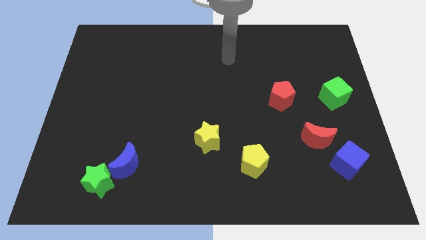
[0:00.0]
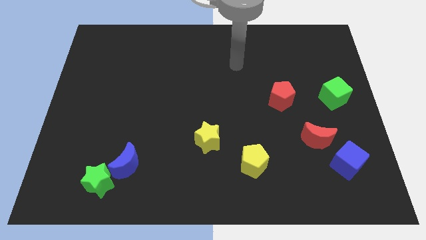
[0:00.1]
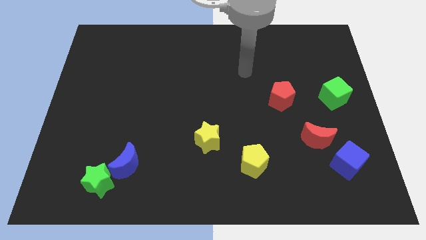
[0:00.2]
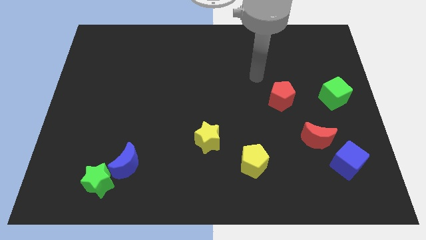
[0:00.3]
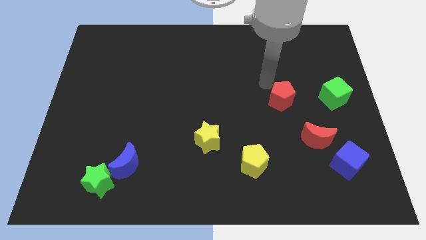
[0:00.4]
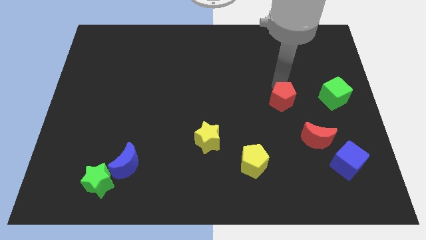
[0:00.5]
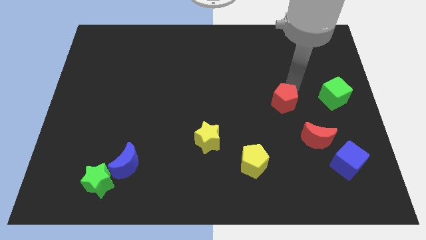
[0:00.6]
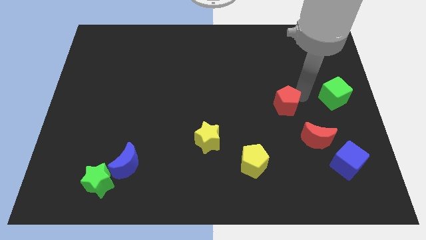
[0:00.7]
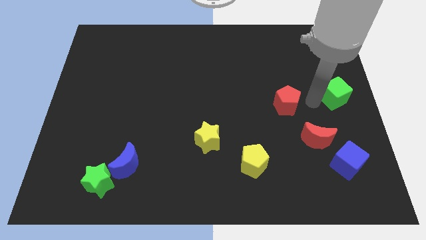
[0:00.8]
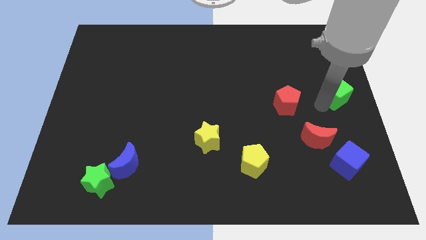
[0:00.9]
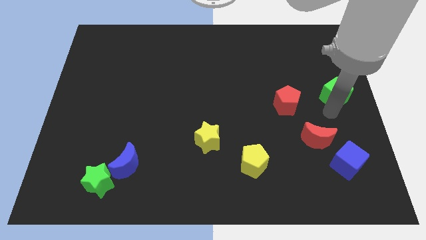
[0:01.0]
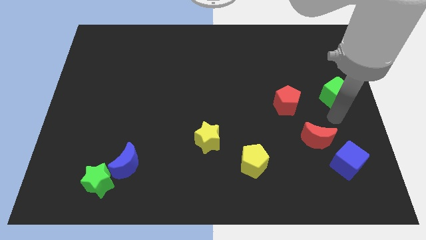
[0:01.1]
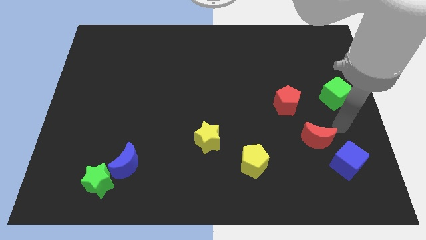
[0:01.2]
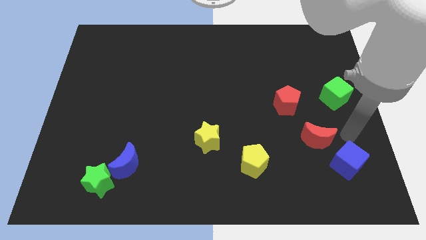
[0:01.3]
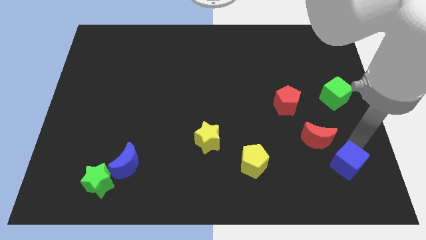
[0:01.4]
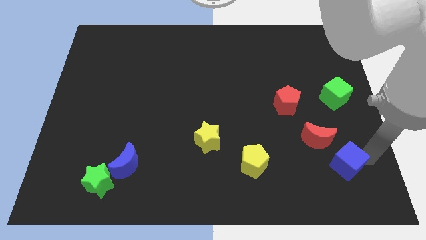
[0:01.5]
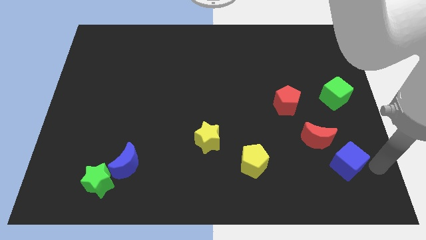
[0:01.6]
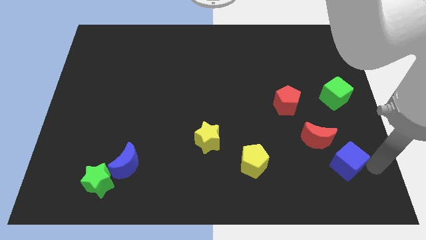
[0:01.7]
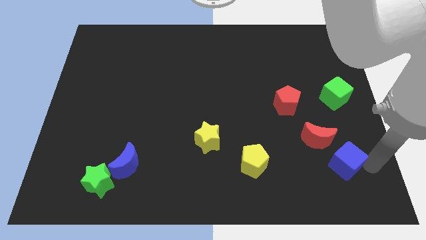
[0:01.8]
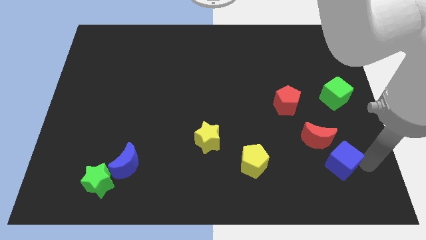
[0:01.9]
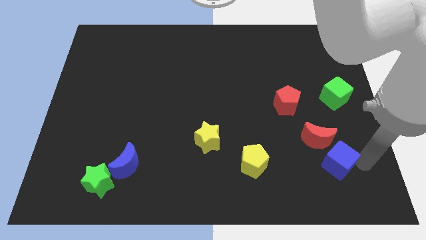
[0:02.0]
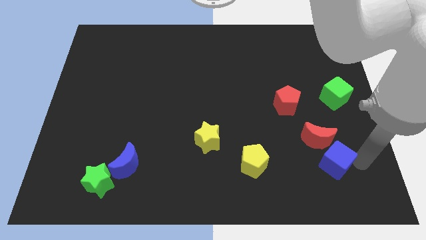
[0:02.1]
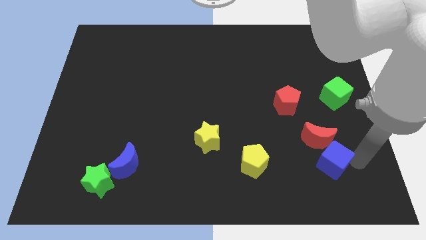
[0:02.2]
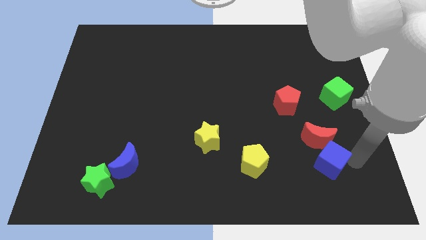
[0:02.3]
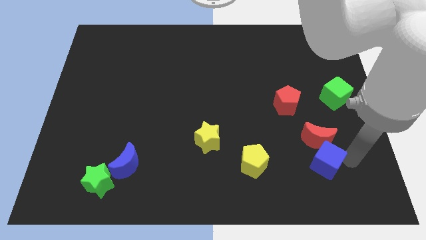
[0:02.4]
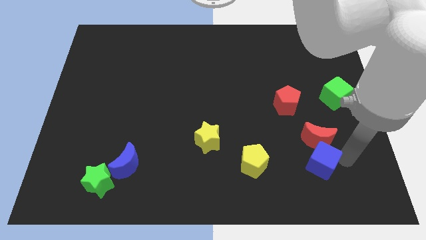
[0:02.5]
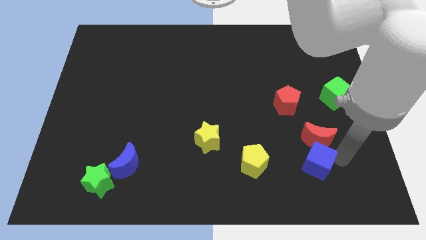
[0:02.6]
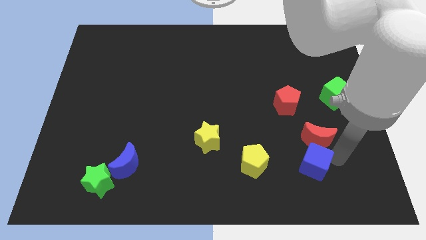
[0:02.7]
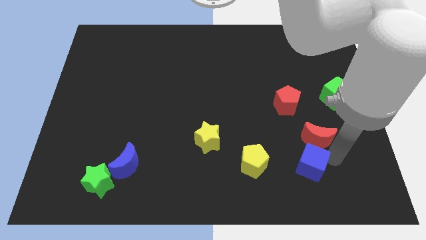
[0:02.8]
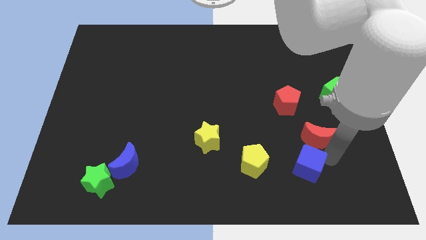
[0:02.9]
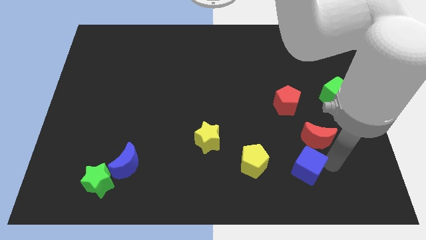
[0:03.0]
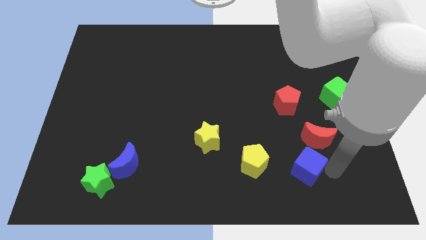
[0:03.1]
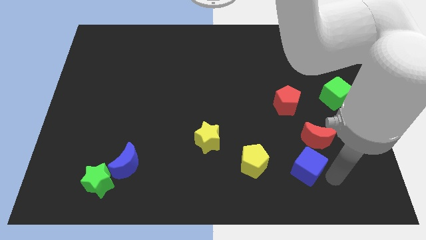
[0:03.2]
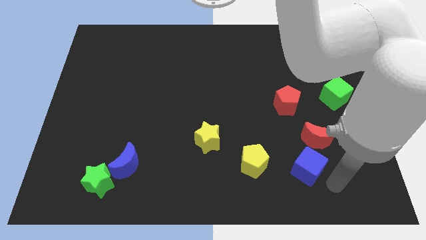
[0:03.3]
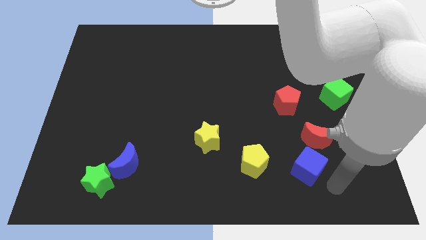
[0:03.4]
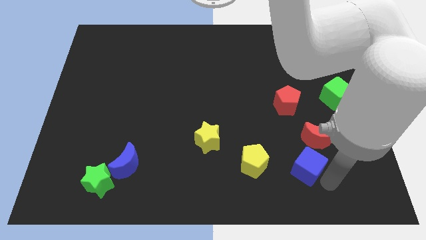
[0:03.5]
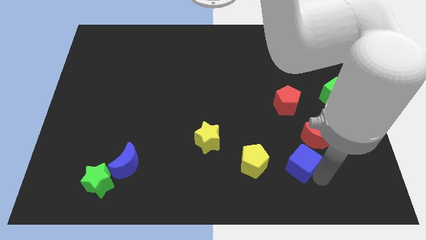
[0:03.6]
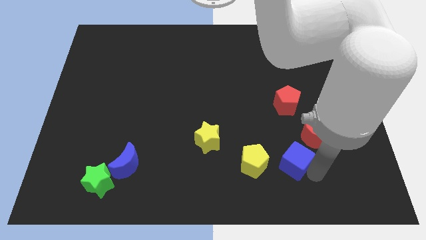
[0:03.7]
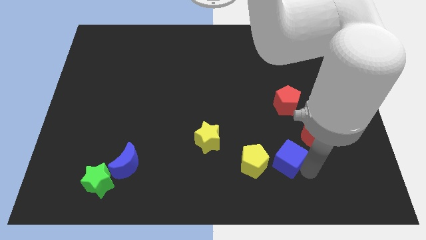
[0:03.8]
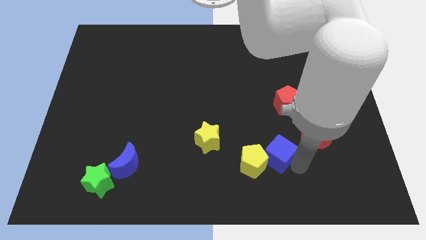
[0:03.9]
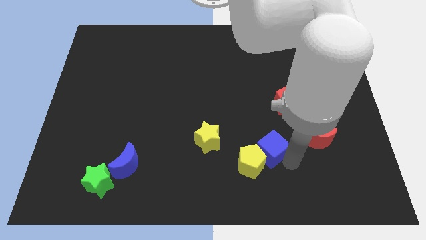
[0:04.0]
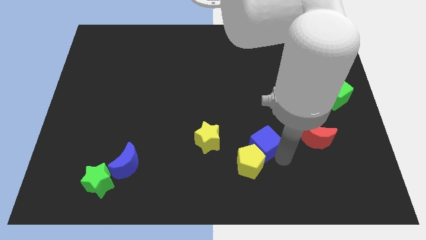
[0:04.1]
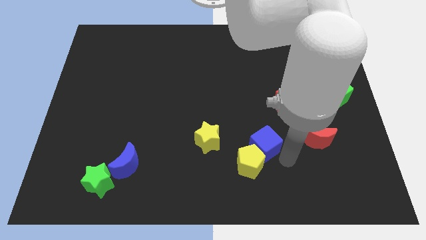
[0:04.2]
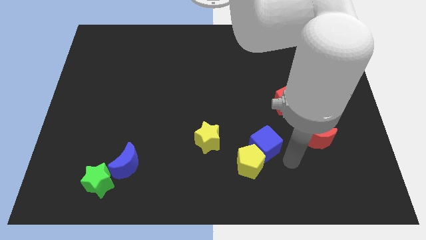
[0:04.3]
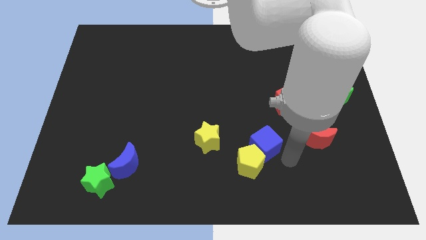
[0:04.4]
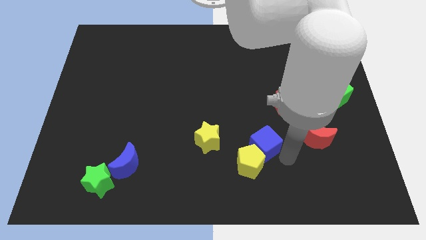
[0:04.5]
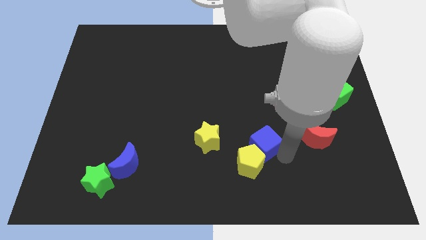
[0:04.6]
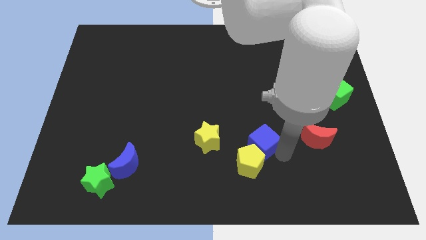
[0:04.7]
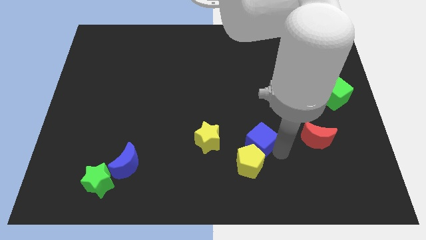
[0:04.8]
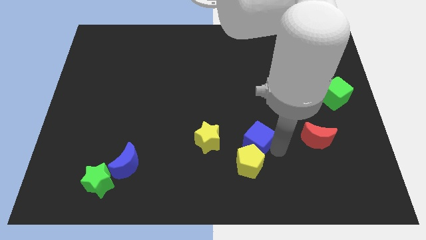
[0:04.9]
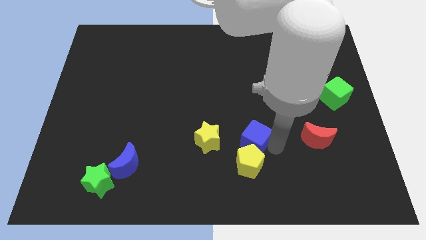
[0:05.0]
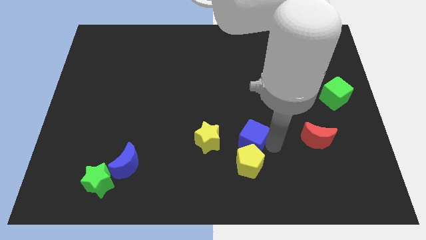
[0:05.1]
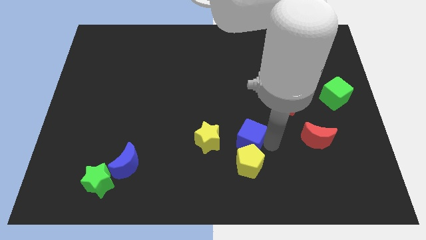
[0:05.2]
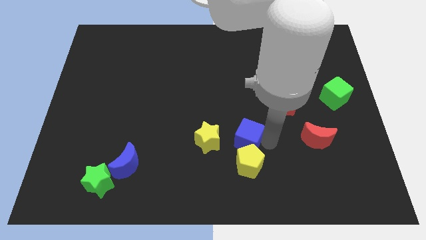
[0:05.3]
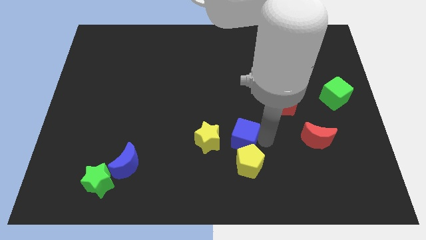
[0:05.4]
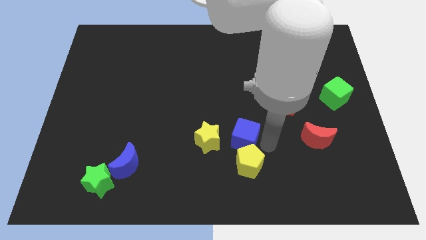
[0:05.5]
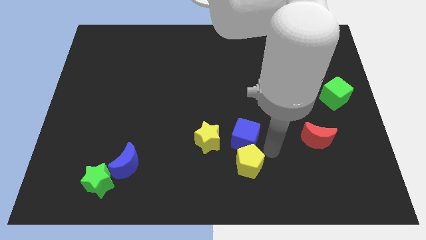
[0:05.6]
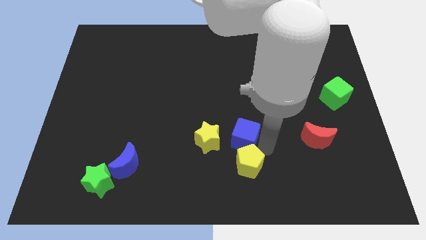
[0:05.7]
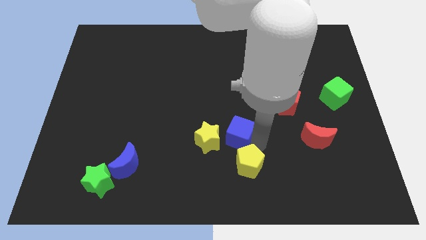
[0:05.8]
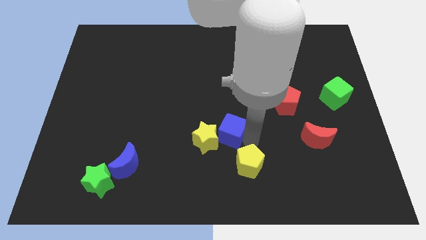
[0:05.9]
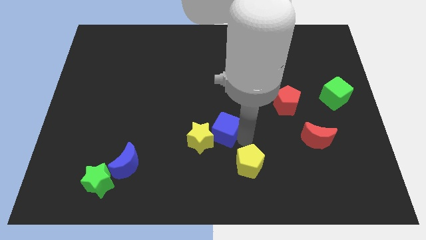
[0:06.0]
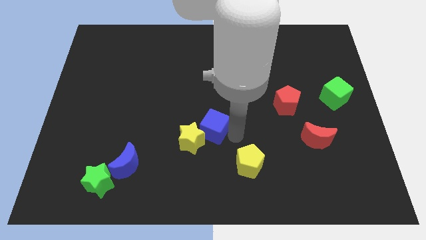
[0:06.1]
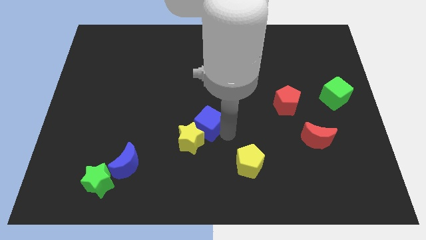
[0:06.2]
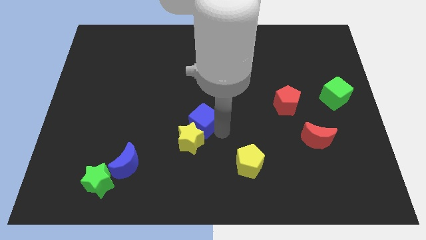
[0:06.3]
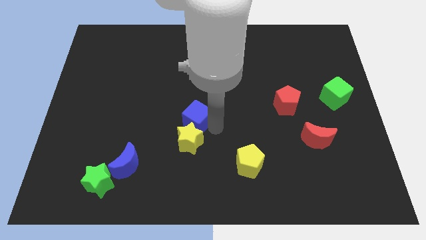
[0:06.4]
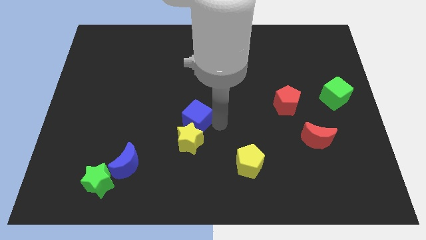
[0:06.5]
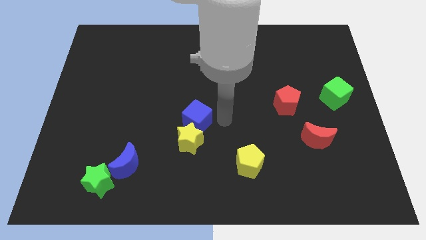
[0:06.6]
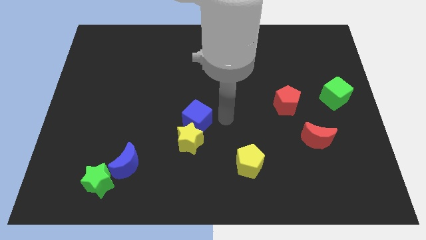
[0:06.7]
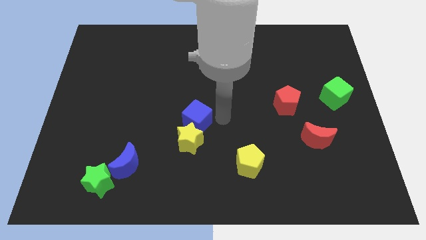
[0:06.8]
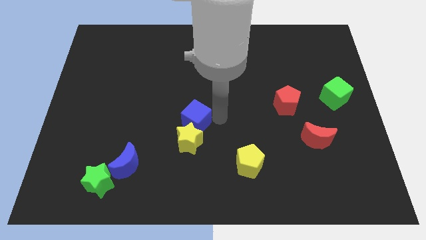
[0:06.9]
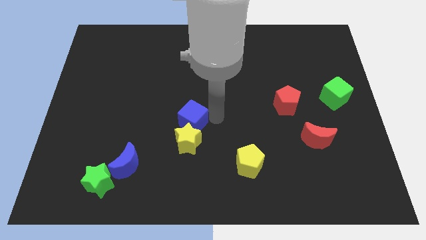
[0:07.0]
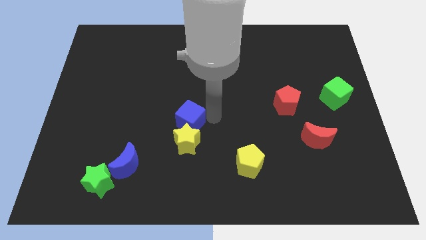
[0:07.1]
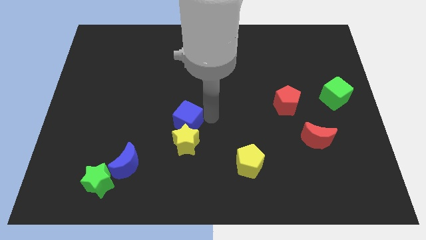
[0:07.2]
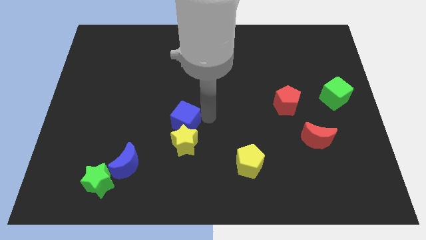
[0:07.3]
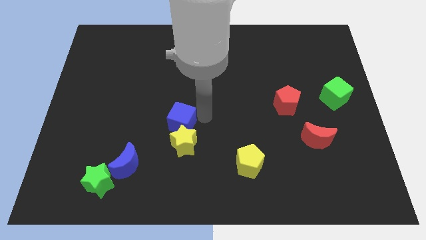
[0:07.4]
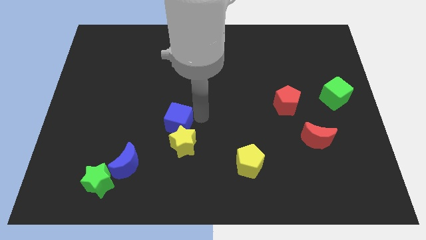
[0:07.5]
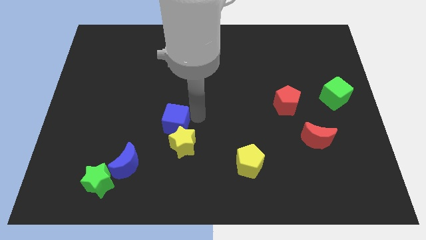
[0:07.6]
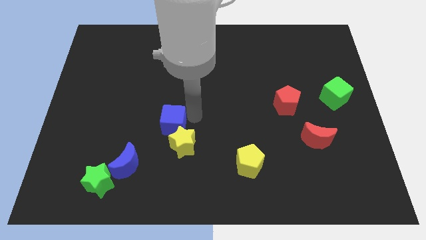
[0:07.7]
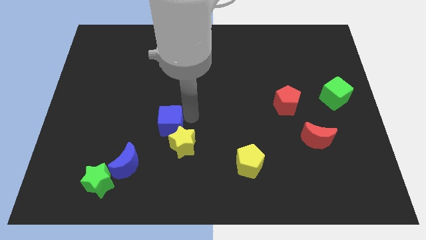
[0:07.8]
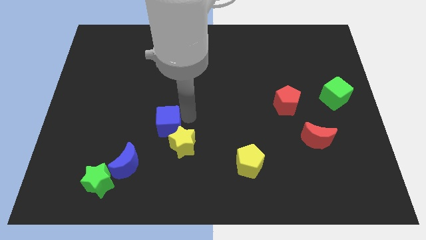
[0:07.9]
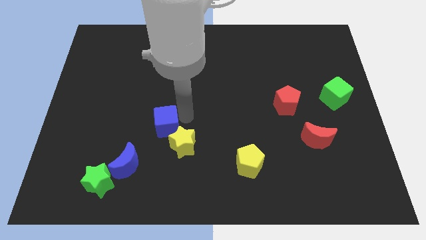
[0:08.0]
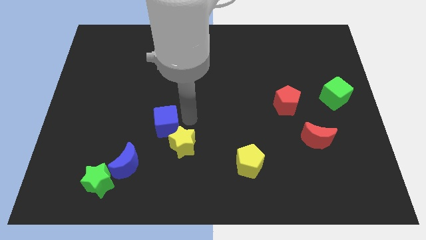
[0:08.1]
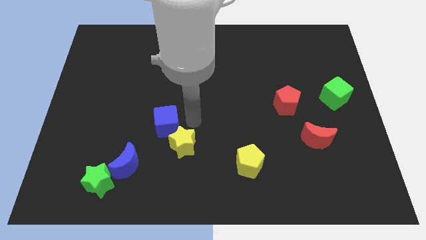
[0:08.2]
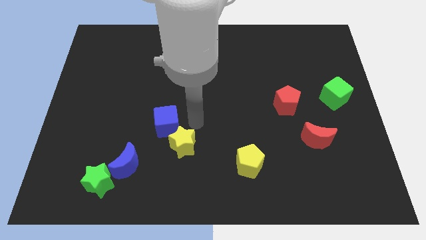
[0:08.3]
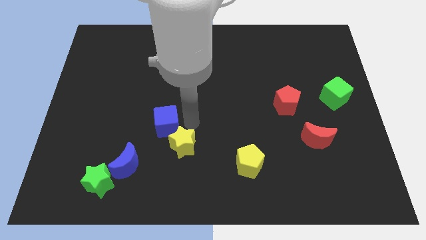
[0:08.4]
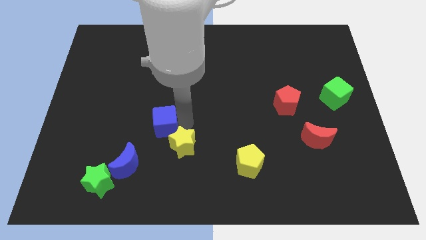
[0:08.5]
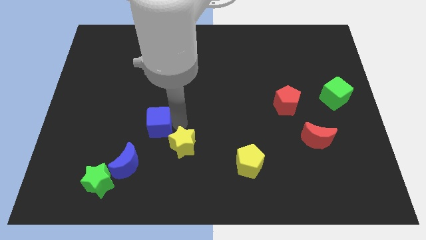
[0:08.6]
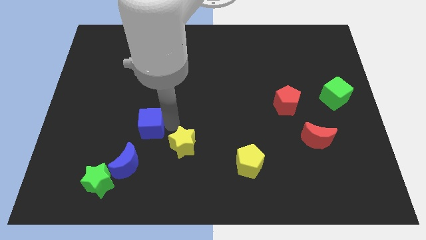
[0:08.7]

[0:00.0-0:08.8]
move the blue cube to the top side of the blue moon
